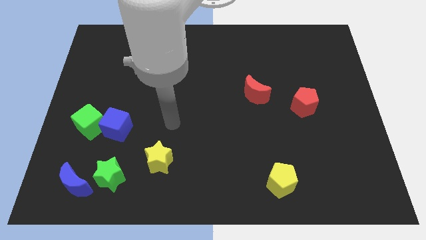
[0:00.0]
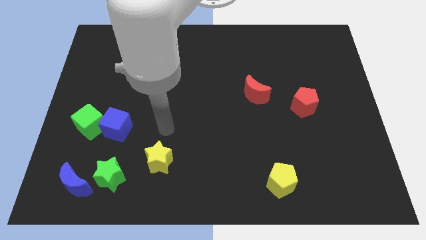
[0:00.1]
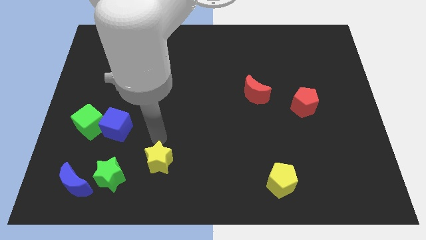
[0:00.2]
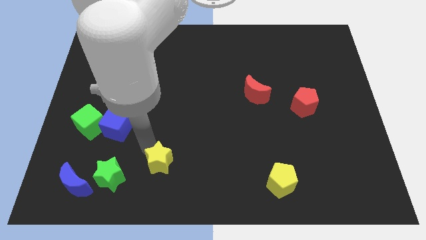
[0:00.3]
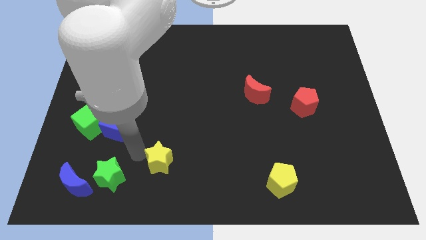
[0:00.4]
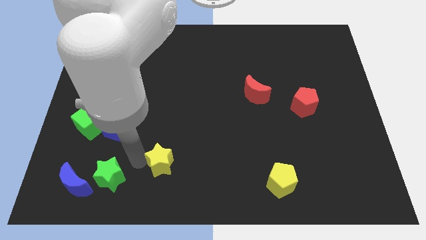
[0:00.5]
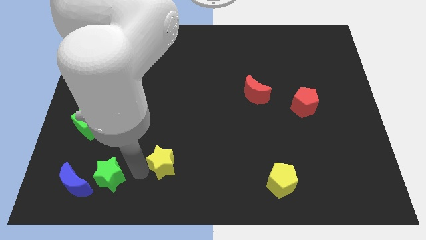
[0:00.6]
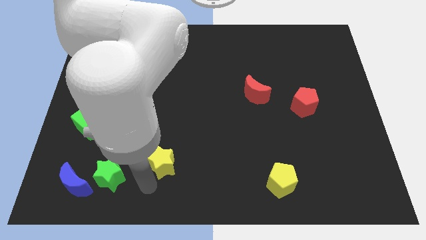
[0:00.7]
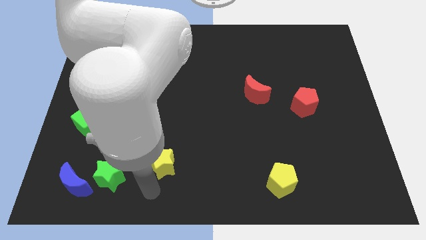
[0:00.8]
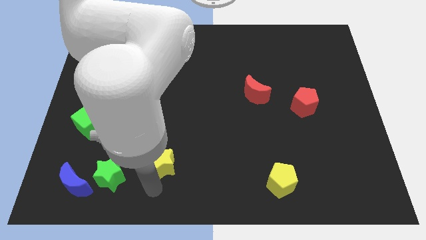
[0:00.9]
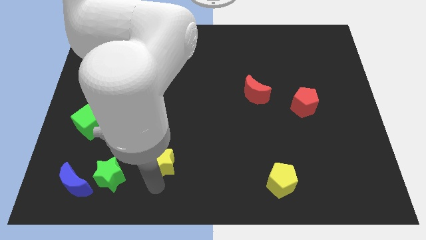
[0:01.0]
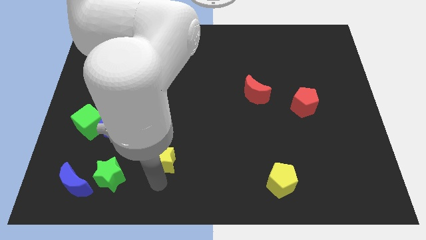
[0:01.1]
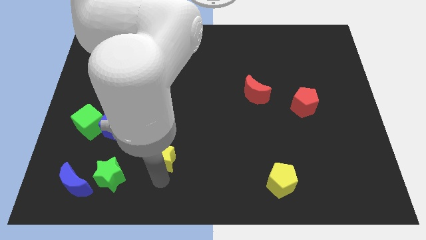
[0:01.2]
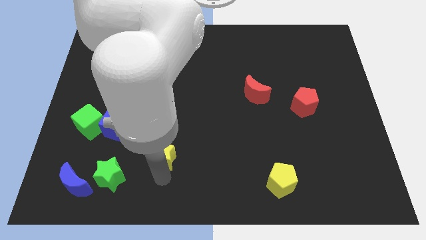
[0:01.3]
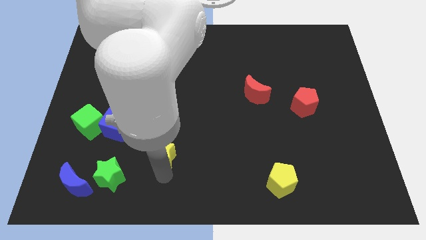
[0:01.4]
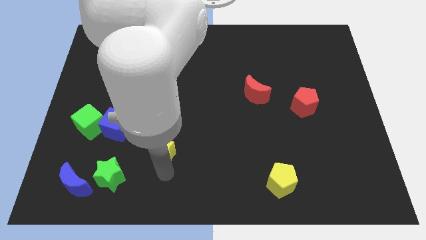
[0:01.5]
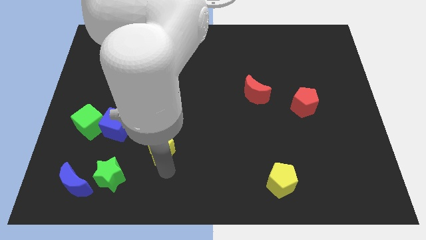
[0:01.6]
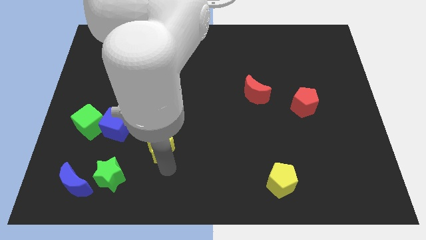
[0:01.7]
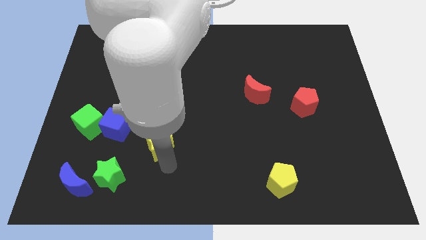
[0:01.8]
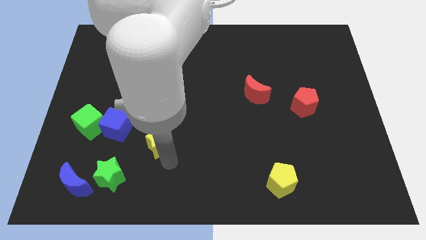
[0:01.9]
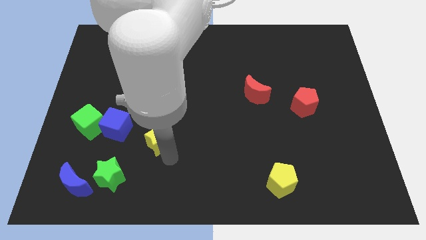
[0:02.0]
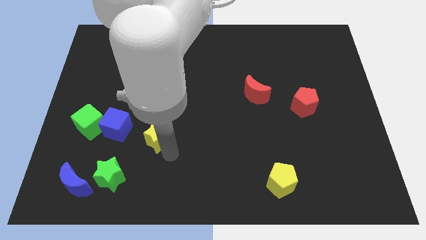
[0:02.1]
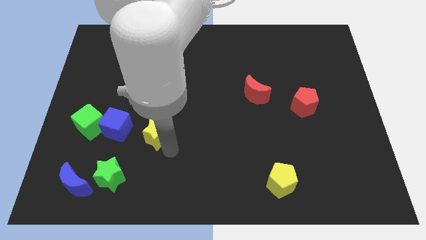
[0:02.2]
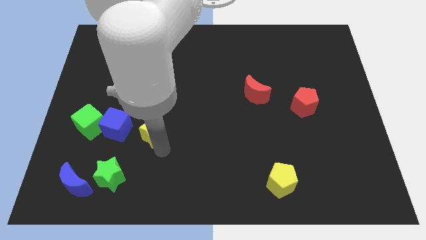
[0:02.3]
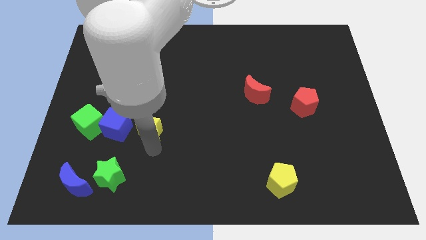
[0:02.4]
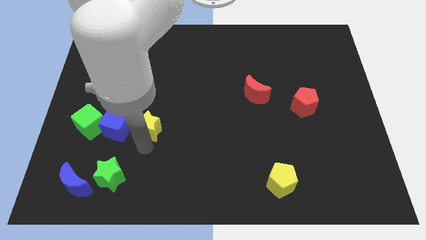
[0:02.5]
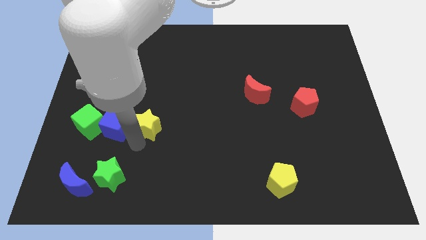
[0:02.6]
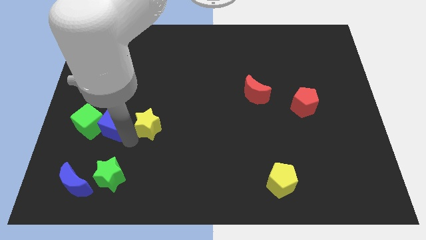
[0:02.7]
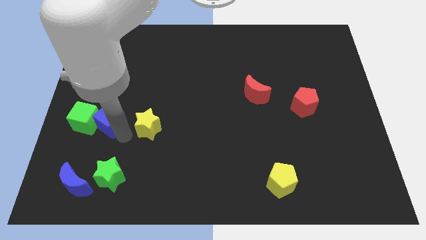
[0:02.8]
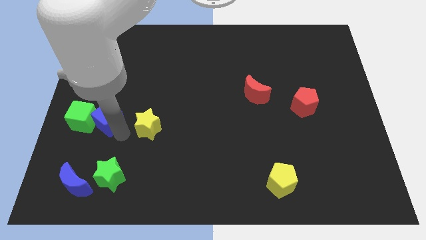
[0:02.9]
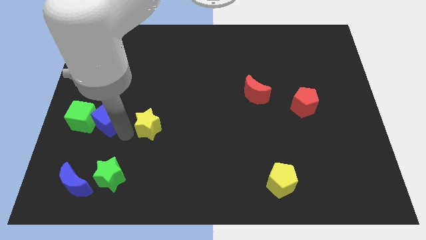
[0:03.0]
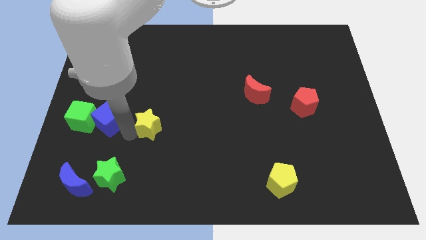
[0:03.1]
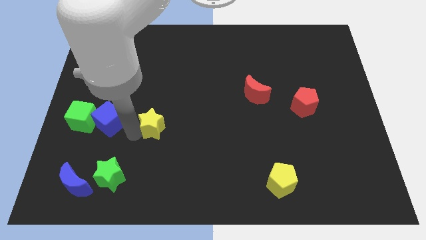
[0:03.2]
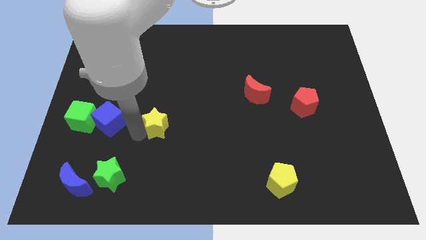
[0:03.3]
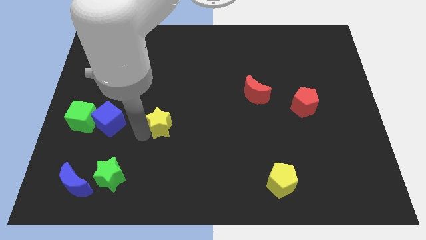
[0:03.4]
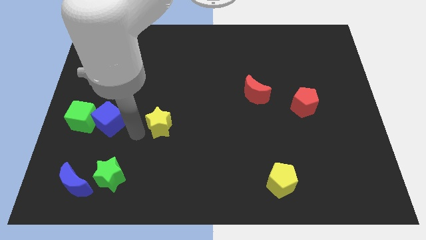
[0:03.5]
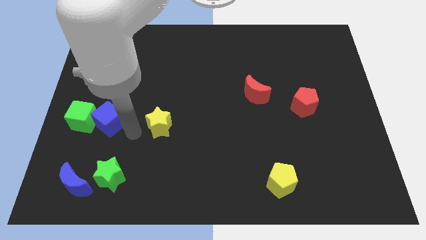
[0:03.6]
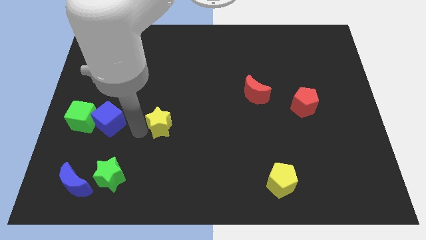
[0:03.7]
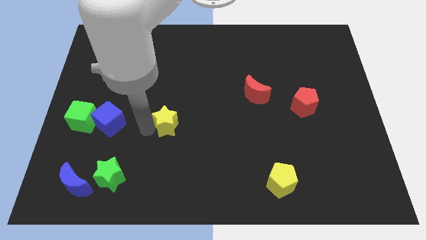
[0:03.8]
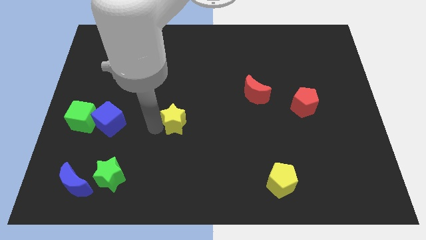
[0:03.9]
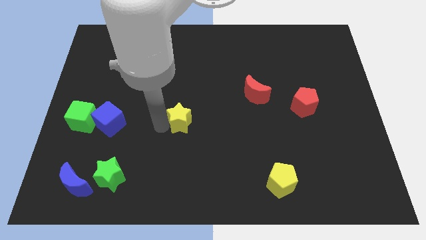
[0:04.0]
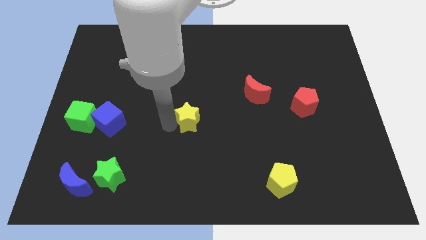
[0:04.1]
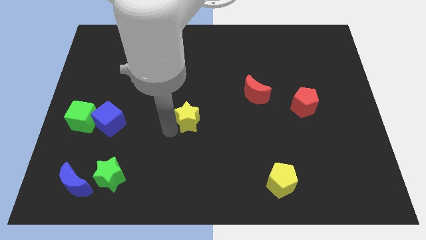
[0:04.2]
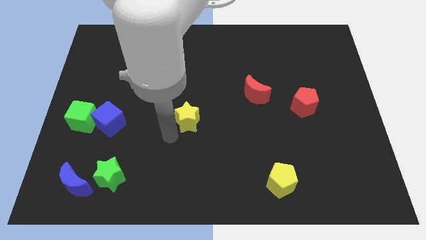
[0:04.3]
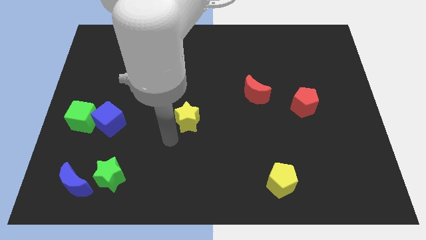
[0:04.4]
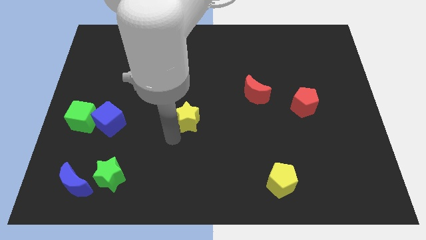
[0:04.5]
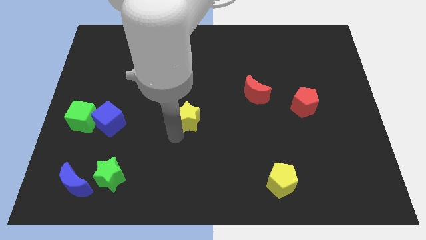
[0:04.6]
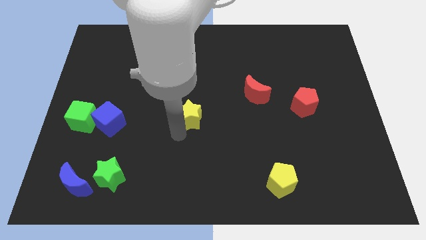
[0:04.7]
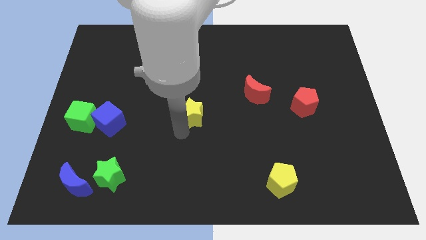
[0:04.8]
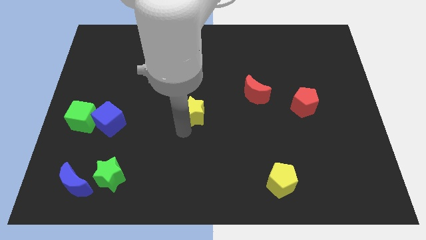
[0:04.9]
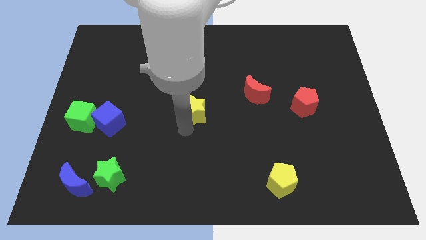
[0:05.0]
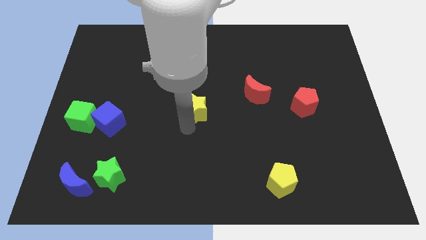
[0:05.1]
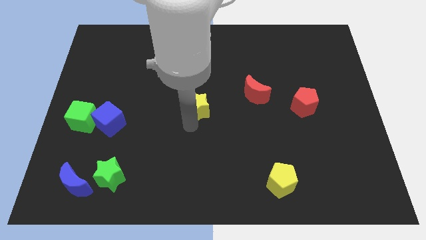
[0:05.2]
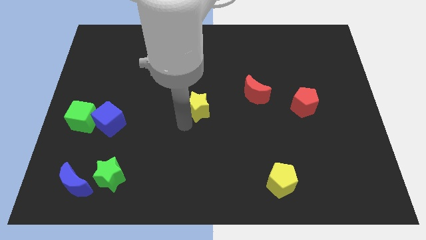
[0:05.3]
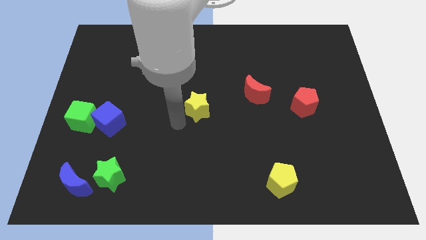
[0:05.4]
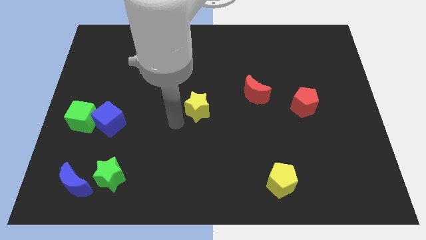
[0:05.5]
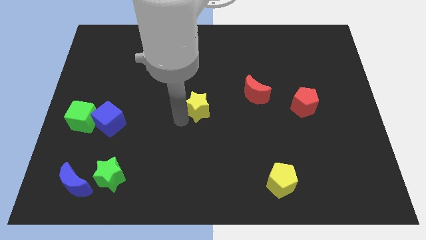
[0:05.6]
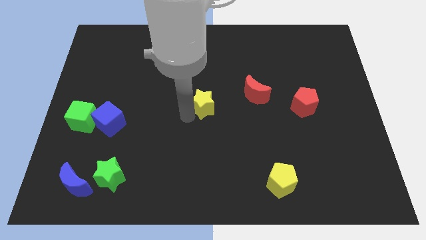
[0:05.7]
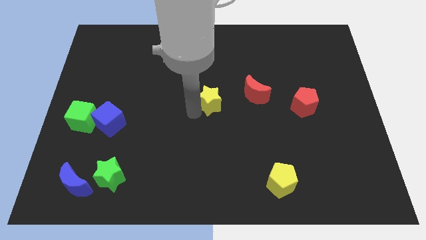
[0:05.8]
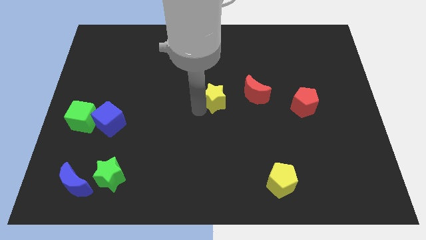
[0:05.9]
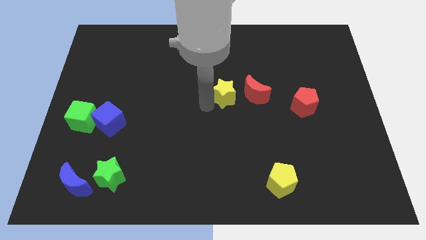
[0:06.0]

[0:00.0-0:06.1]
slide the yellow star diagonally upwards and right

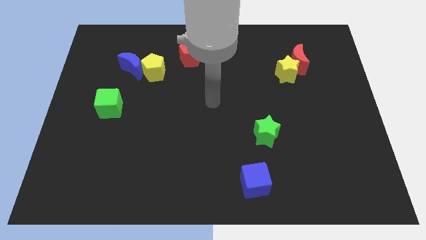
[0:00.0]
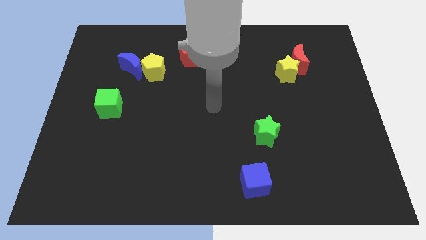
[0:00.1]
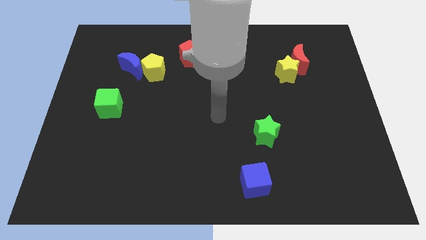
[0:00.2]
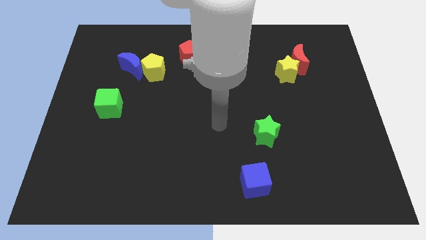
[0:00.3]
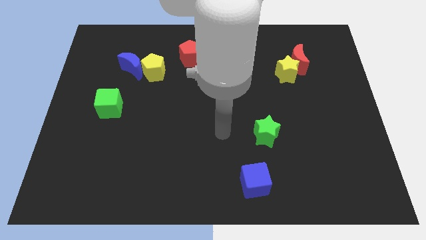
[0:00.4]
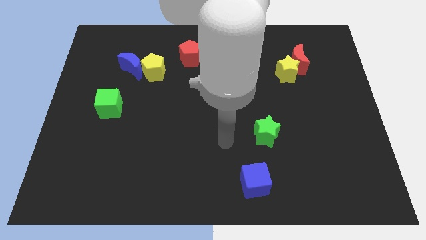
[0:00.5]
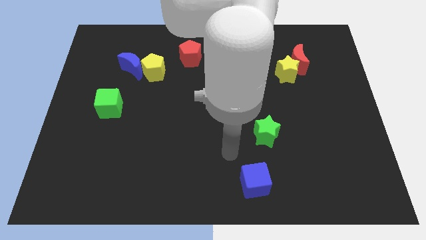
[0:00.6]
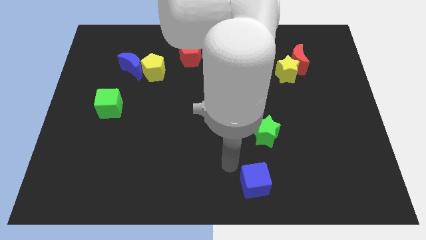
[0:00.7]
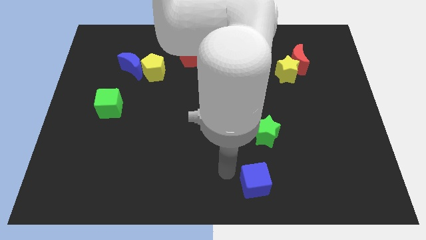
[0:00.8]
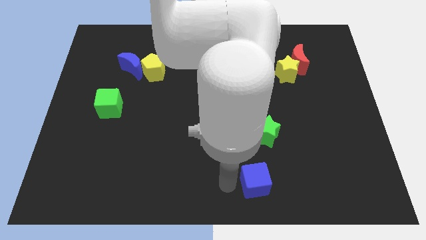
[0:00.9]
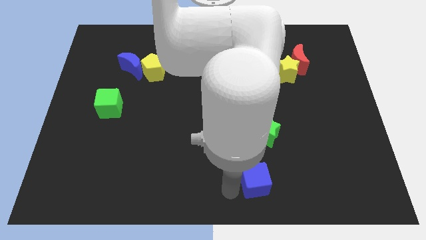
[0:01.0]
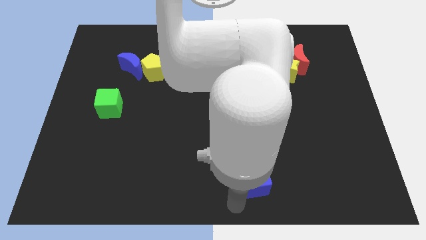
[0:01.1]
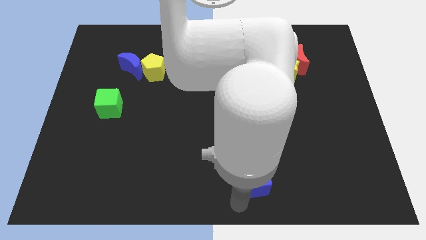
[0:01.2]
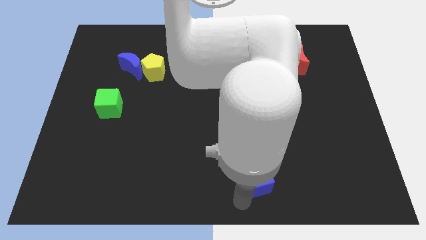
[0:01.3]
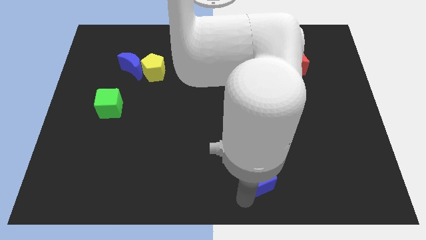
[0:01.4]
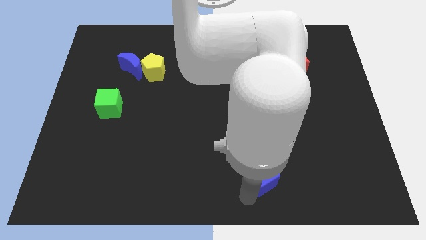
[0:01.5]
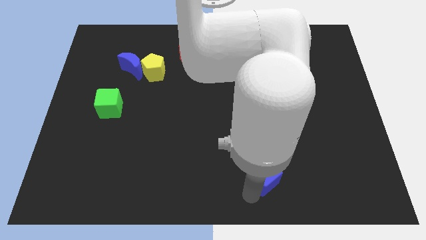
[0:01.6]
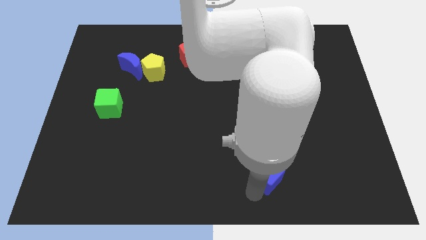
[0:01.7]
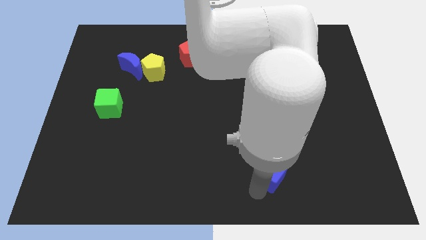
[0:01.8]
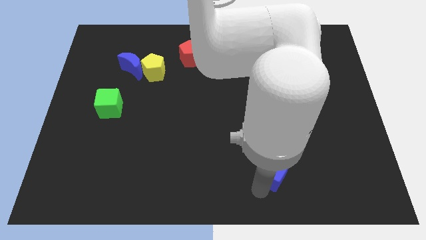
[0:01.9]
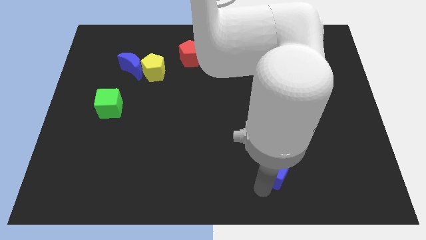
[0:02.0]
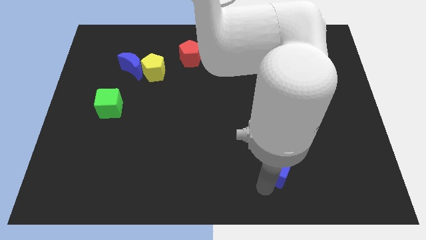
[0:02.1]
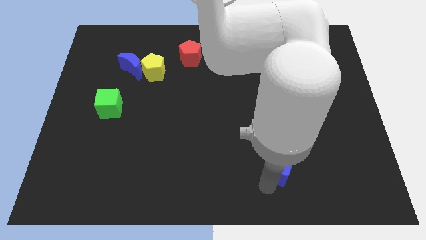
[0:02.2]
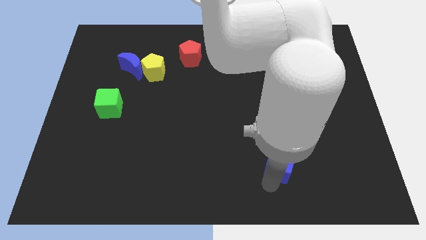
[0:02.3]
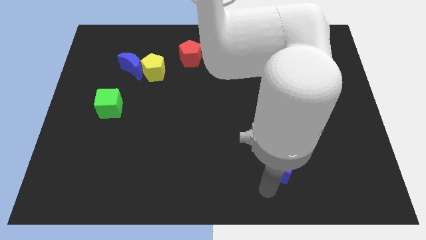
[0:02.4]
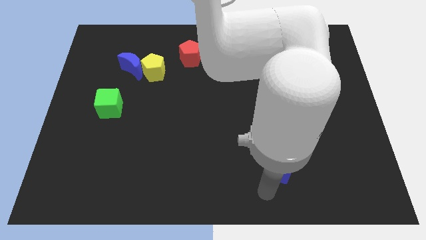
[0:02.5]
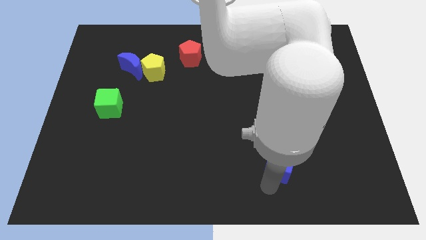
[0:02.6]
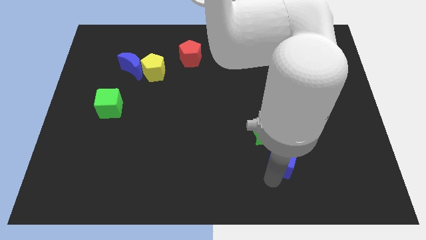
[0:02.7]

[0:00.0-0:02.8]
slide the blue cube upwards and to the right somewhat
